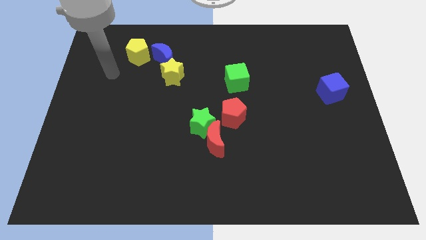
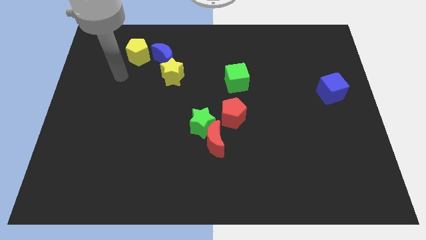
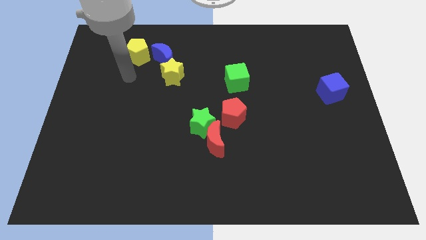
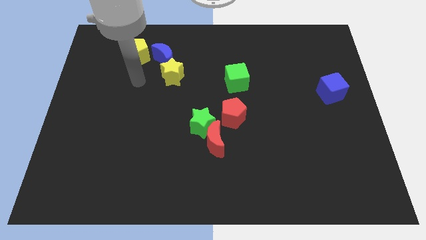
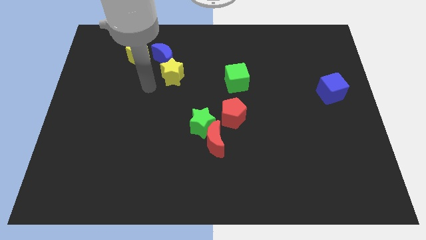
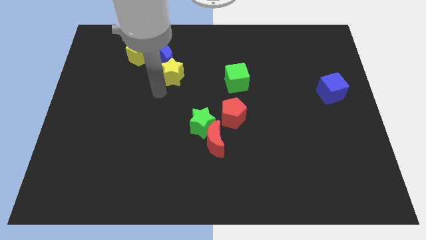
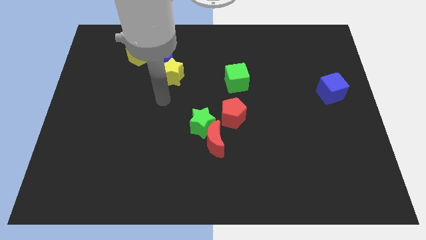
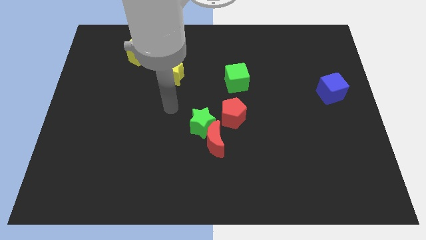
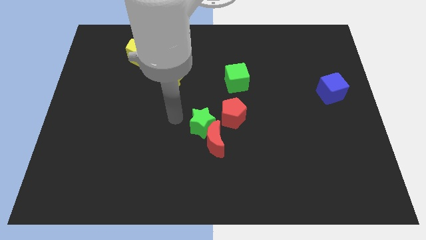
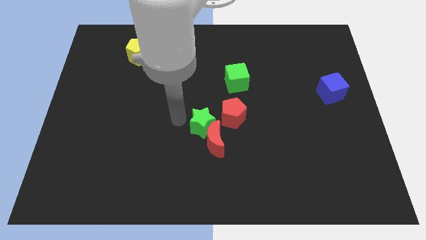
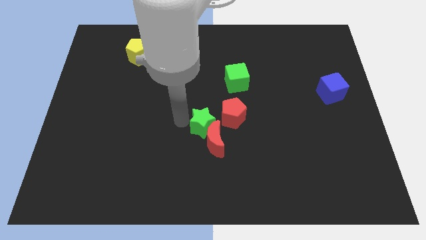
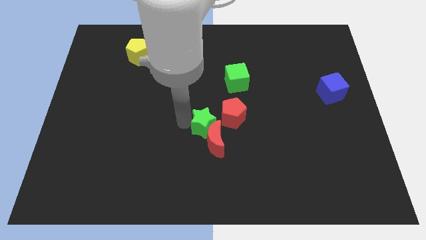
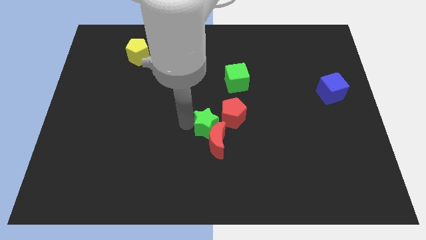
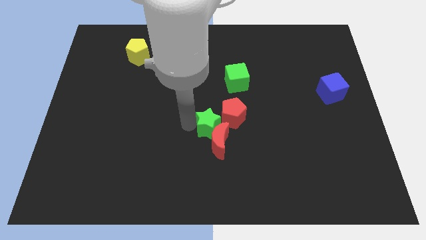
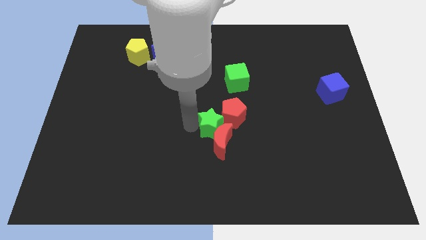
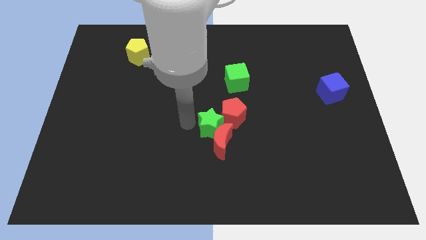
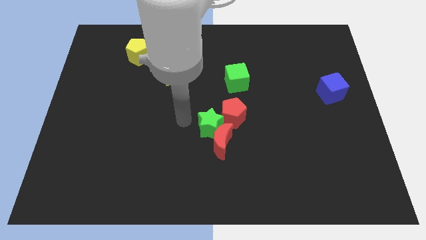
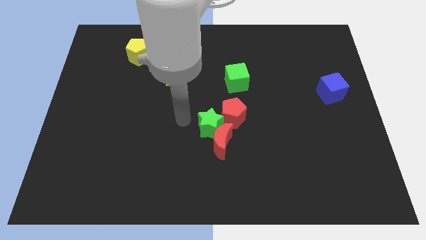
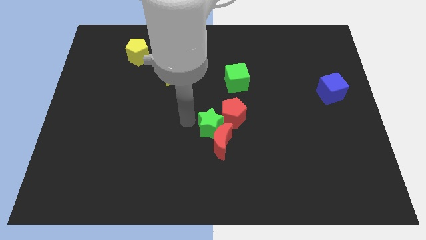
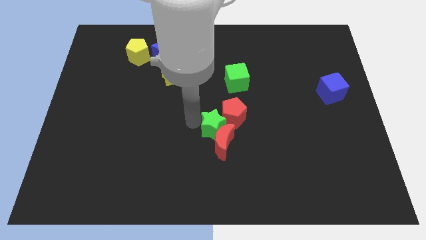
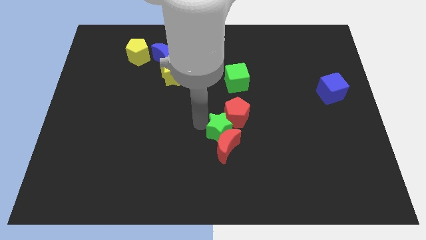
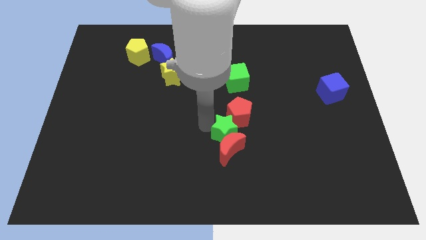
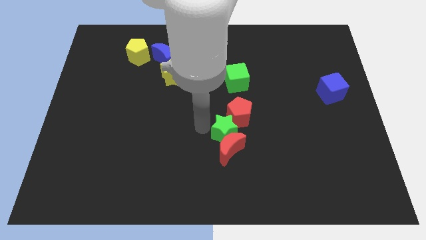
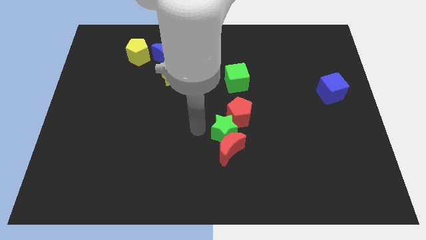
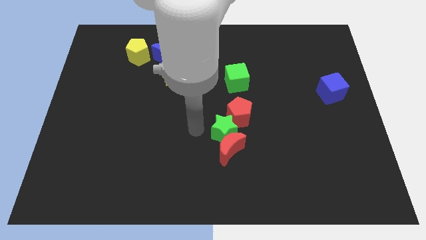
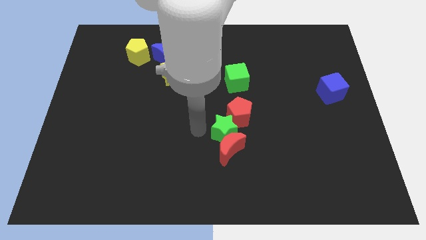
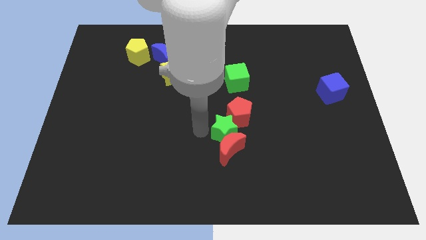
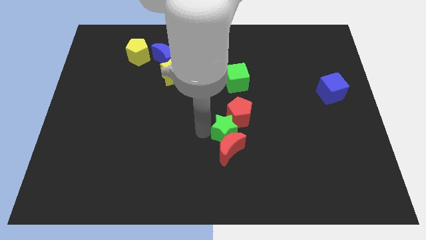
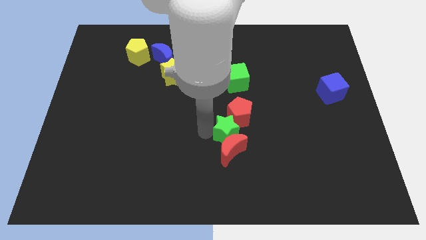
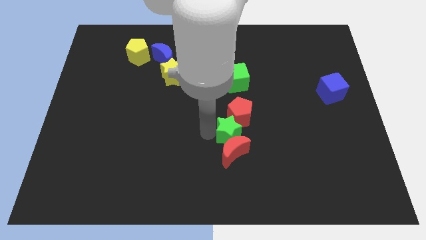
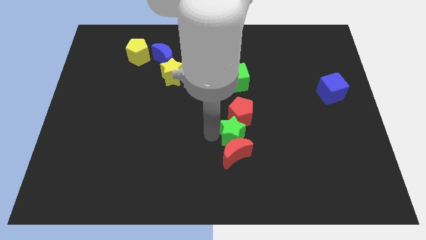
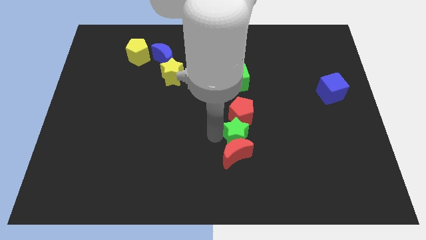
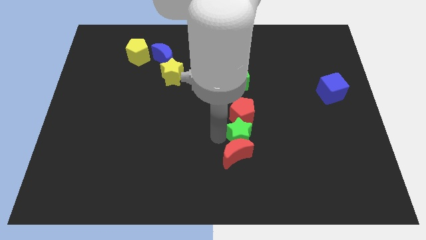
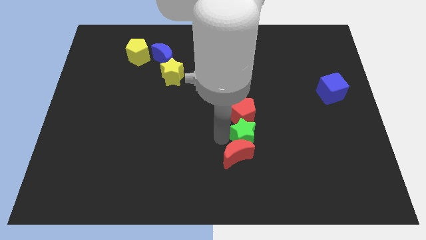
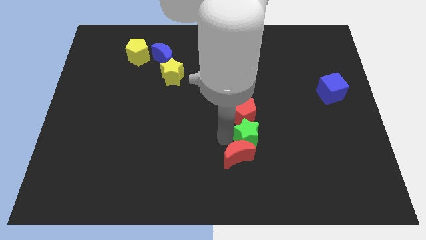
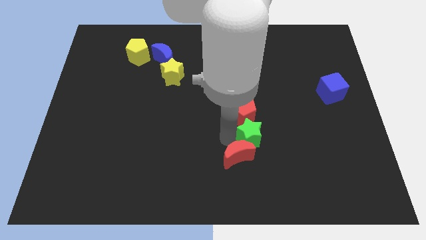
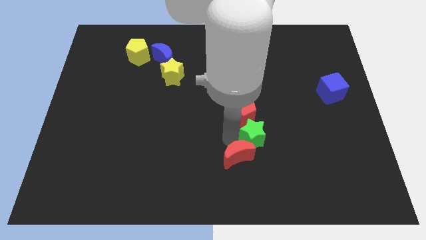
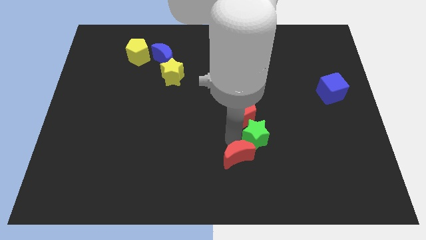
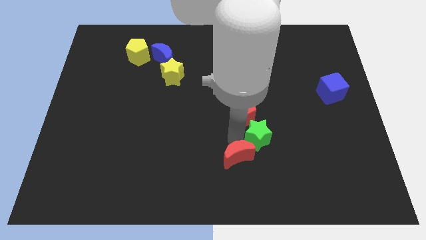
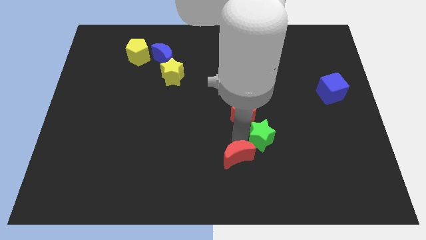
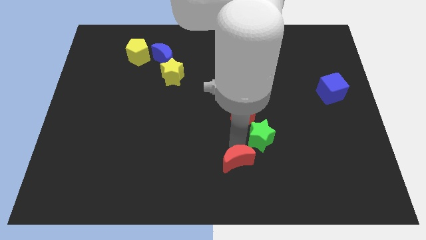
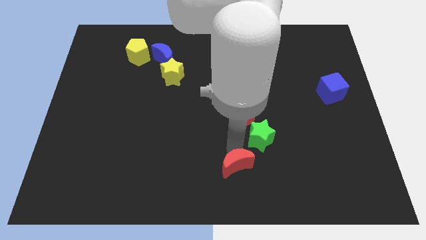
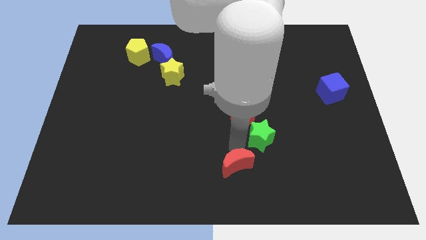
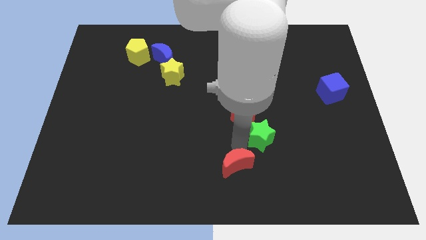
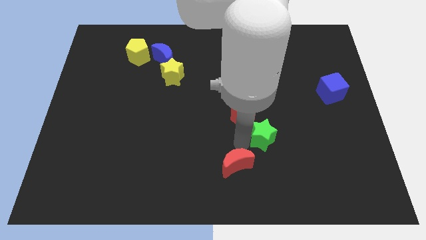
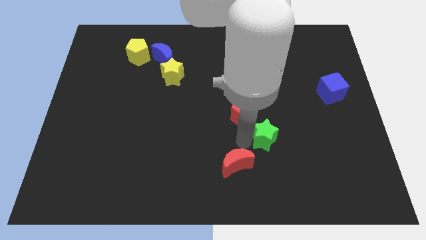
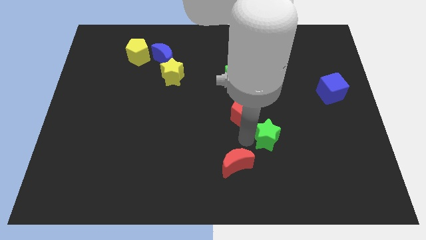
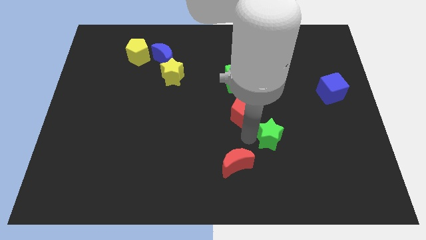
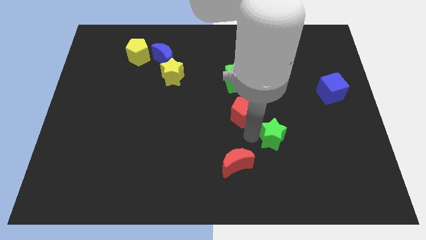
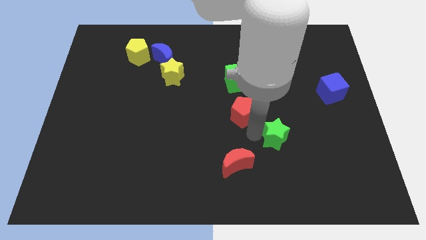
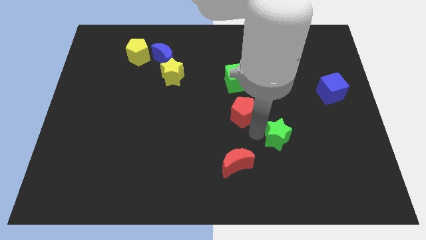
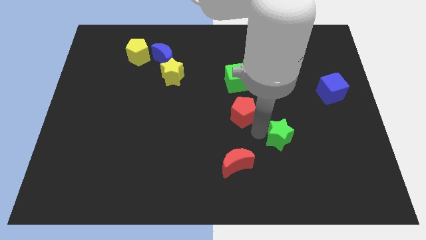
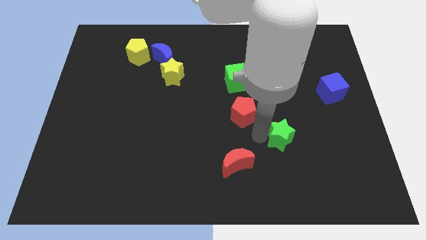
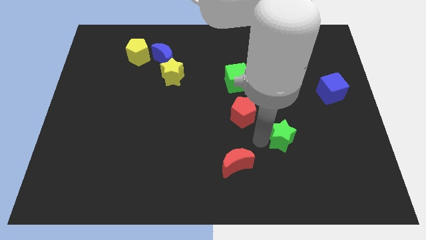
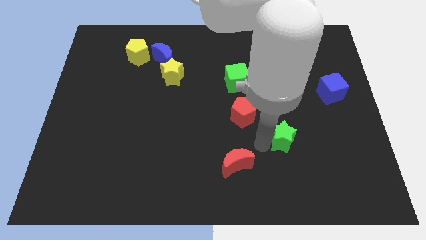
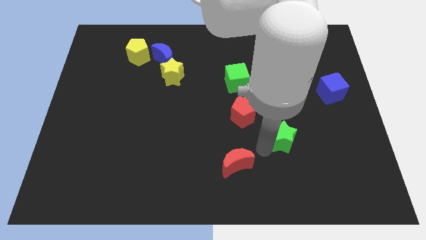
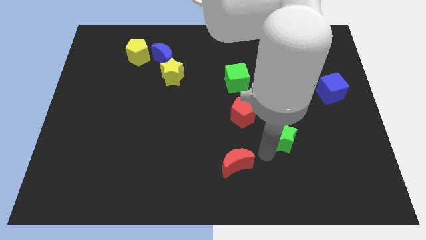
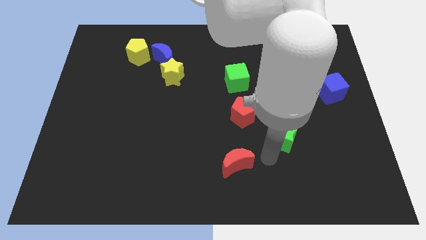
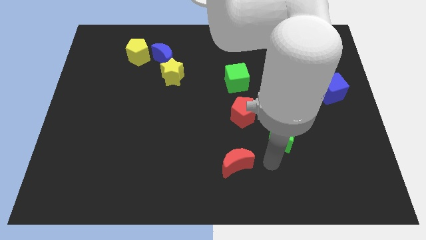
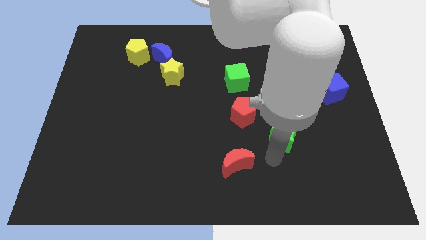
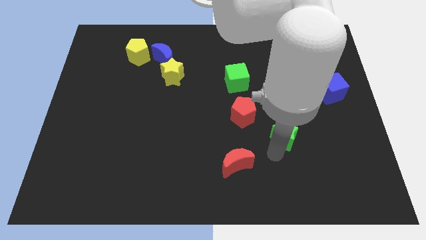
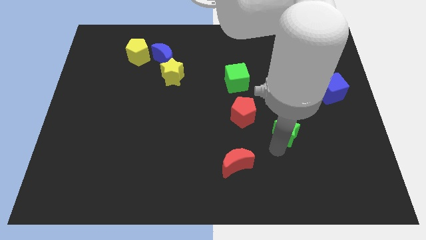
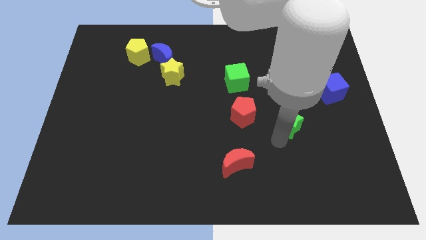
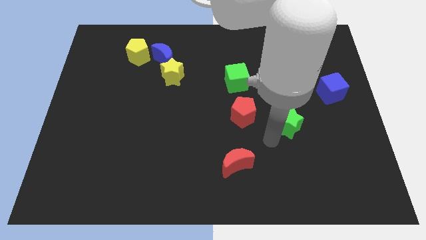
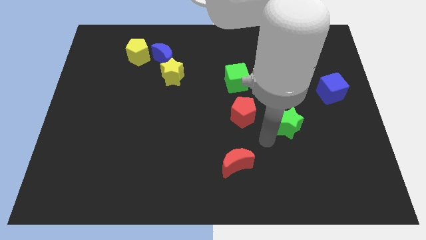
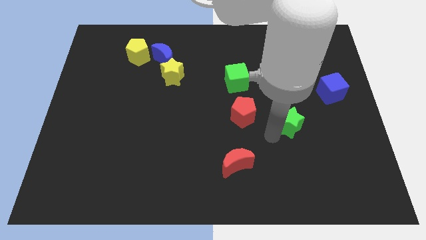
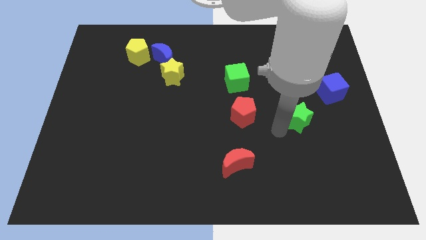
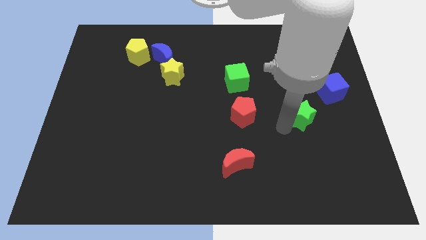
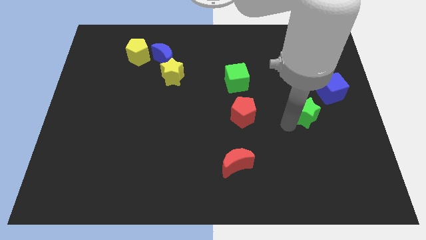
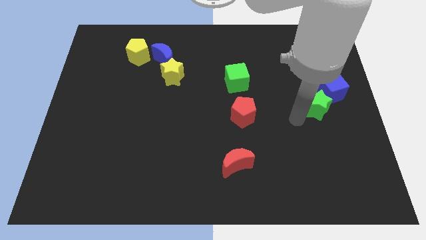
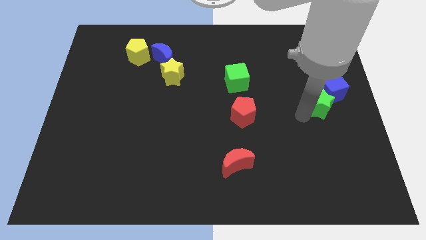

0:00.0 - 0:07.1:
push the green star close to the blue cube

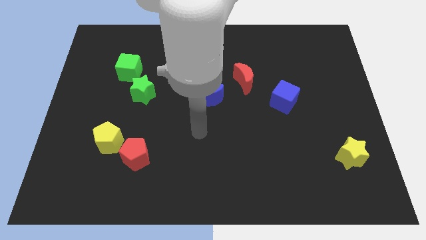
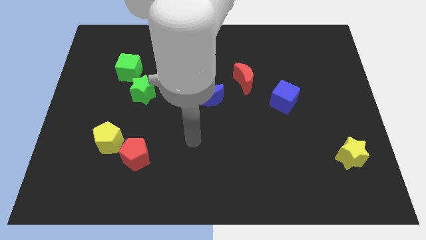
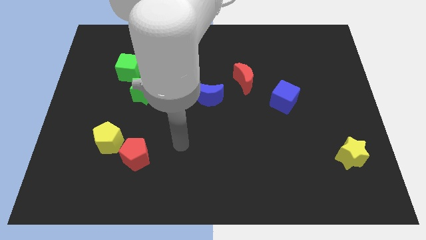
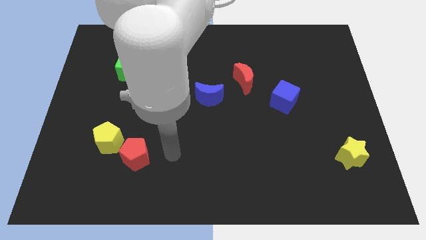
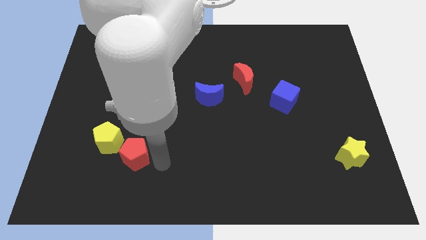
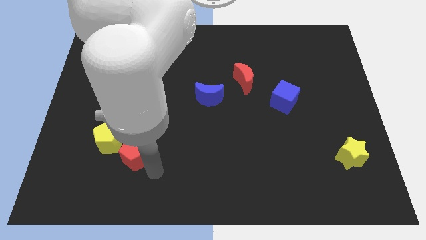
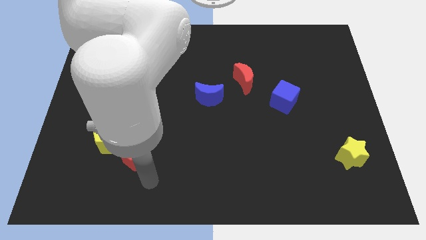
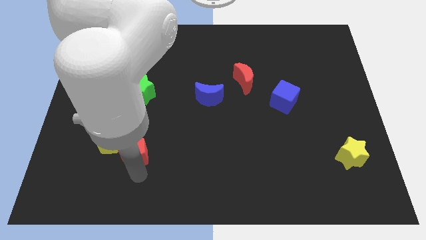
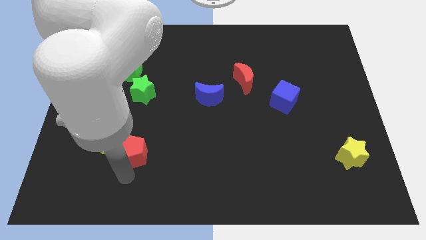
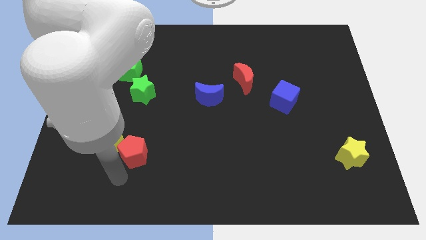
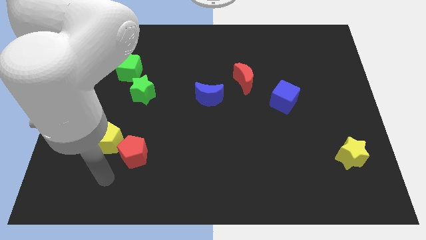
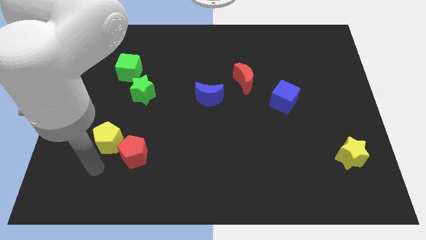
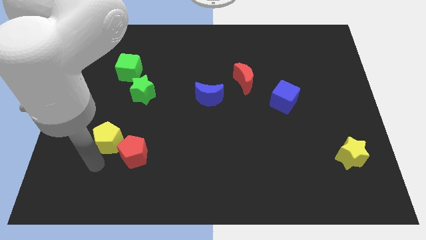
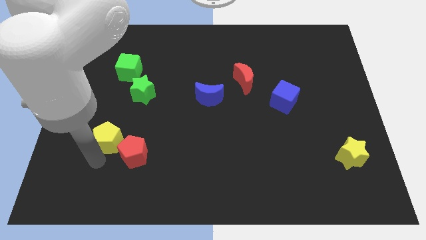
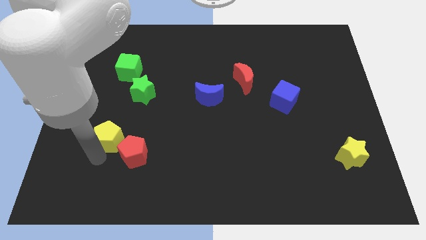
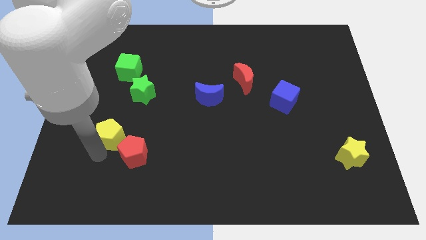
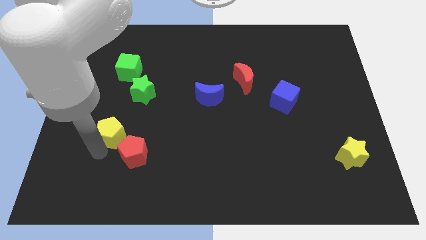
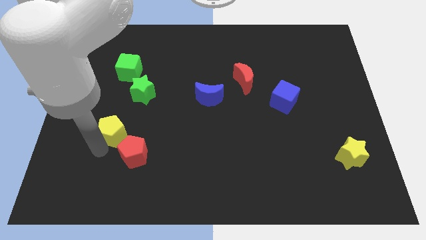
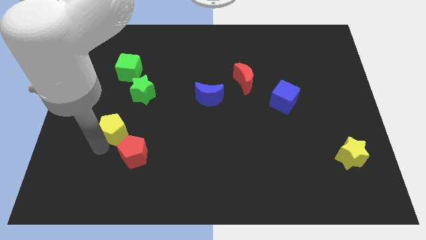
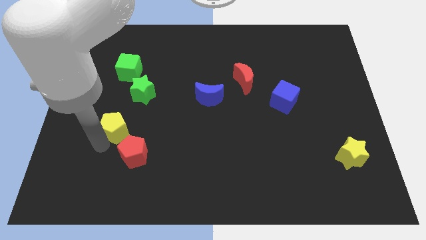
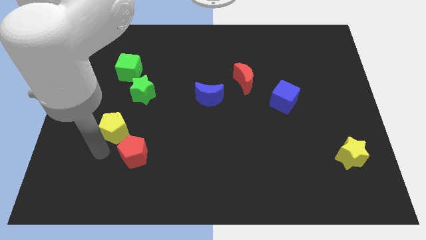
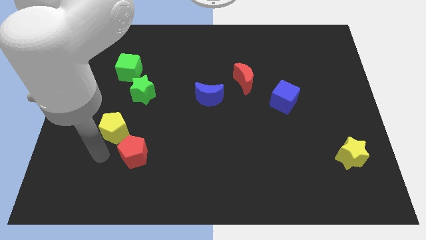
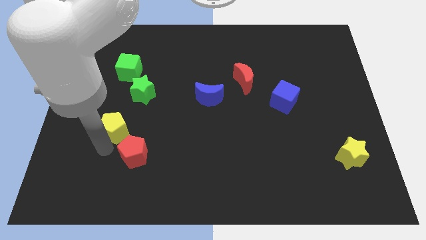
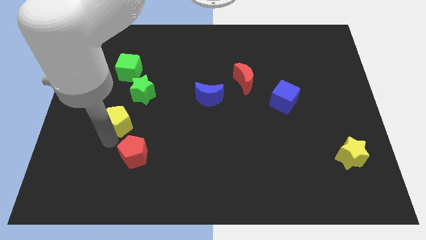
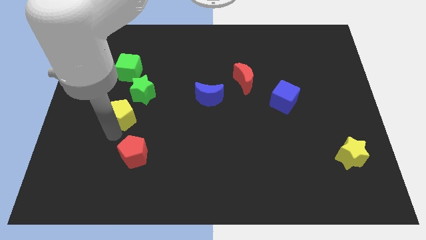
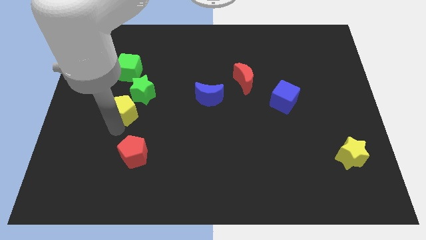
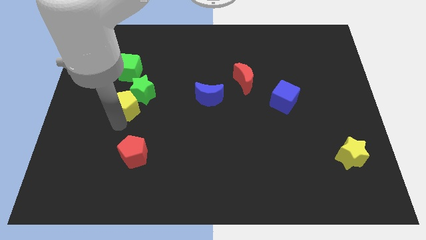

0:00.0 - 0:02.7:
move the yellow pentagon close to the green star
